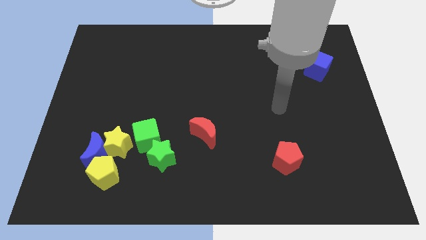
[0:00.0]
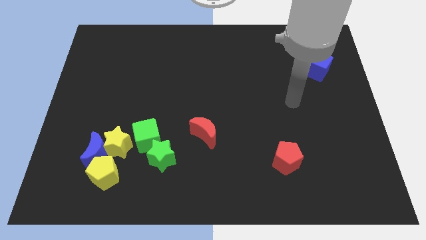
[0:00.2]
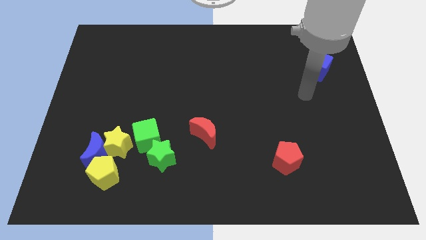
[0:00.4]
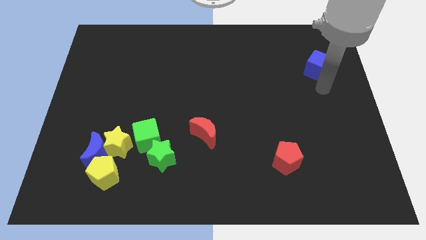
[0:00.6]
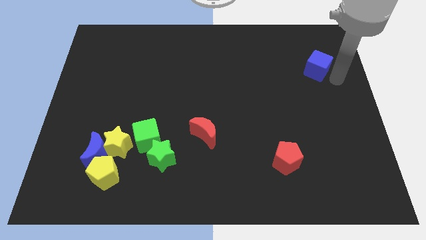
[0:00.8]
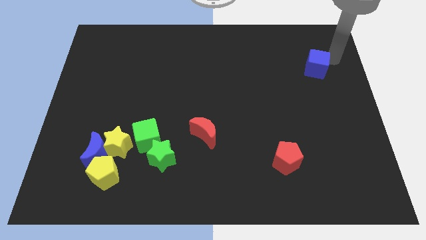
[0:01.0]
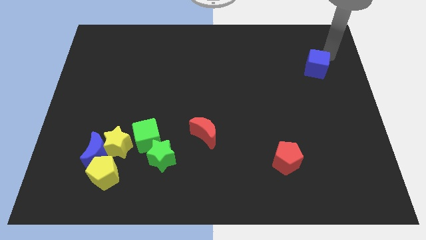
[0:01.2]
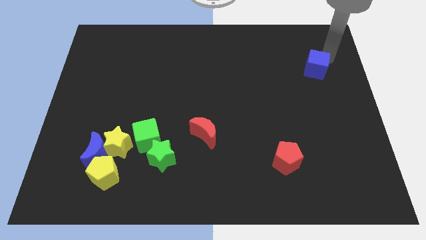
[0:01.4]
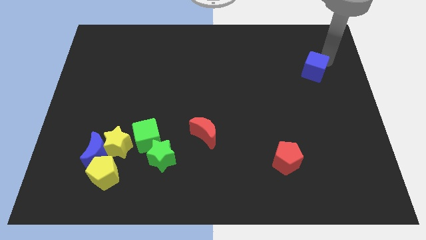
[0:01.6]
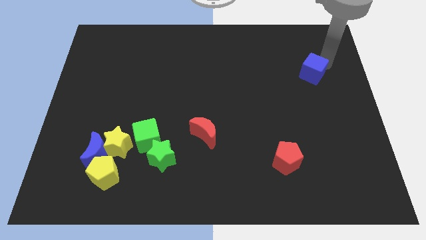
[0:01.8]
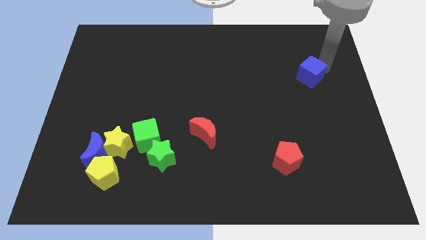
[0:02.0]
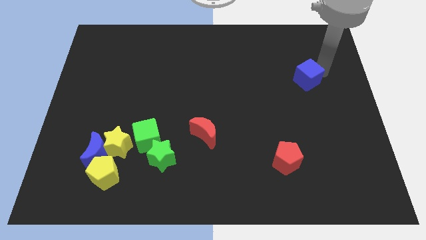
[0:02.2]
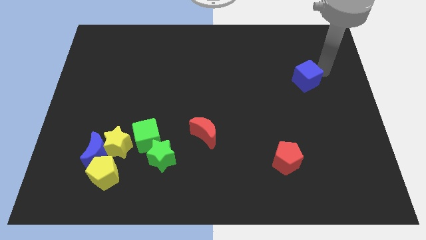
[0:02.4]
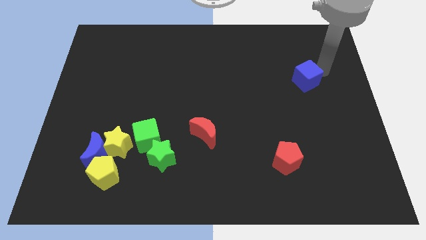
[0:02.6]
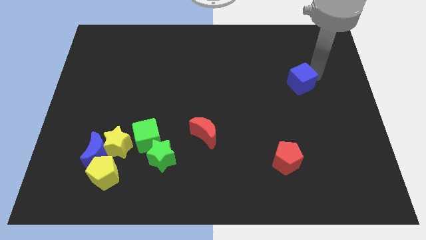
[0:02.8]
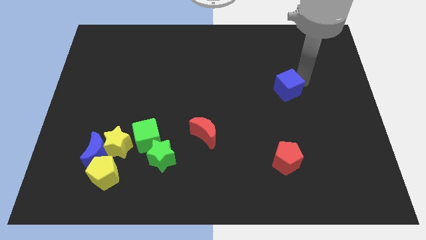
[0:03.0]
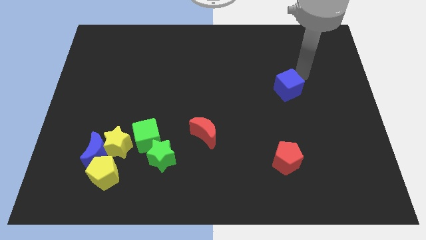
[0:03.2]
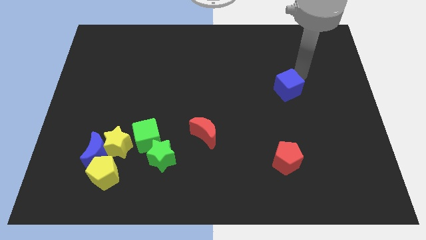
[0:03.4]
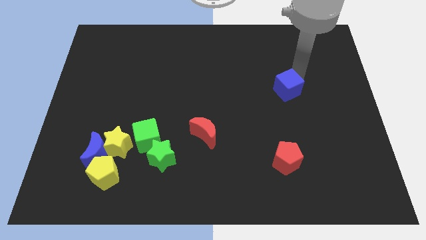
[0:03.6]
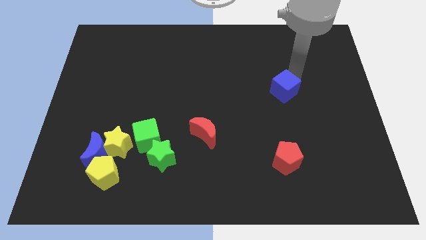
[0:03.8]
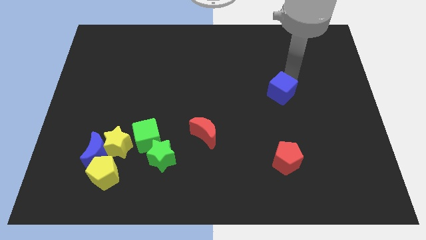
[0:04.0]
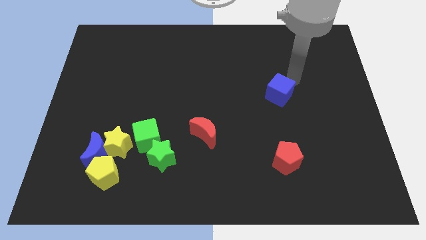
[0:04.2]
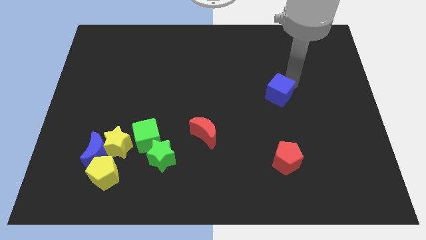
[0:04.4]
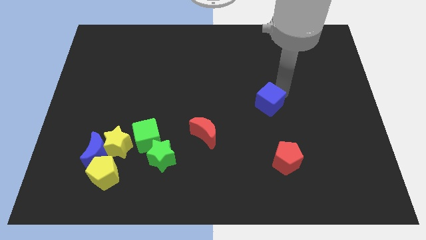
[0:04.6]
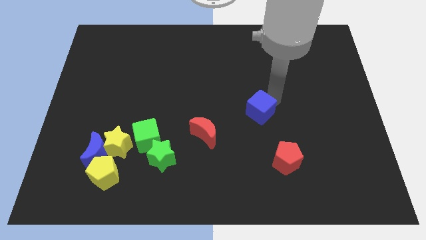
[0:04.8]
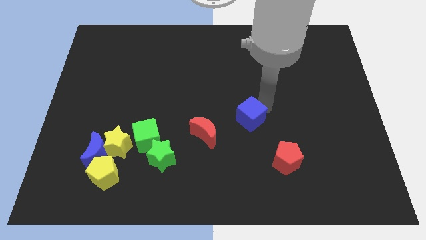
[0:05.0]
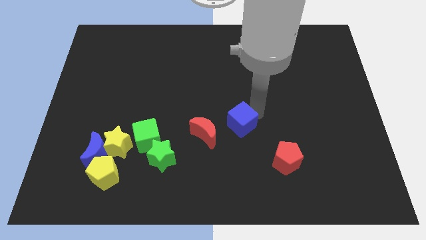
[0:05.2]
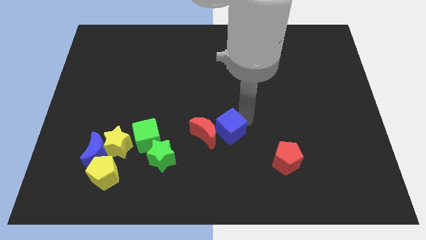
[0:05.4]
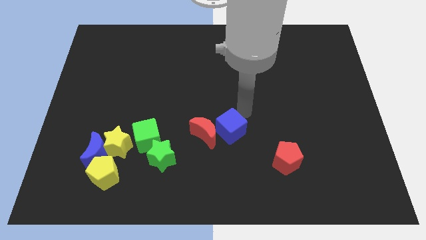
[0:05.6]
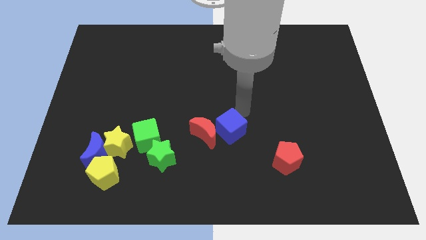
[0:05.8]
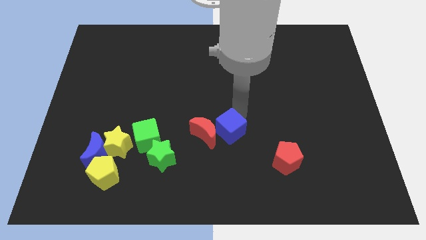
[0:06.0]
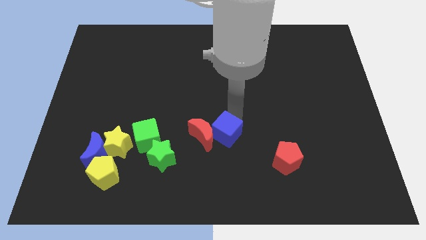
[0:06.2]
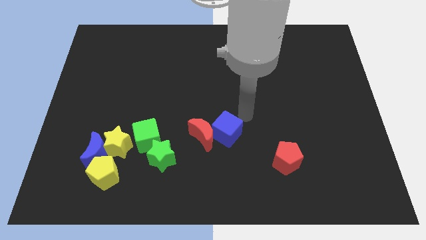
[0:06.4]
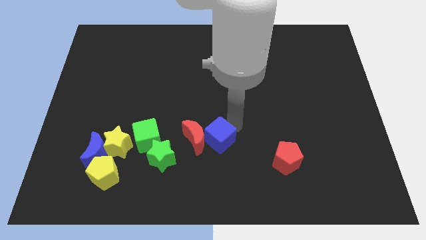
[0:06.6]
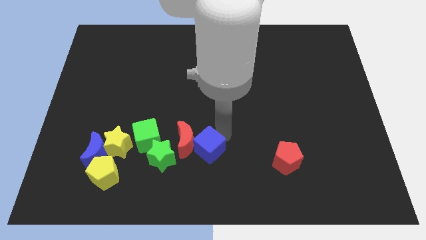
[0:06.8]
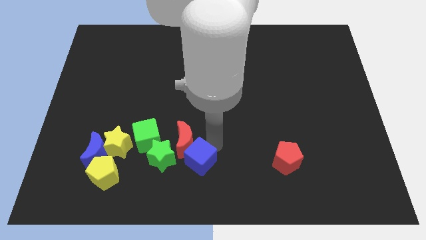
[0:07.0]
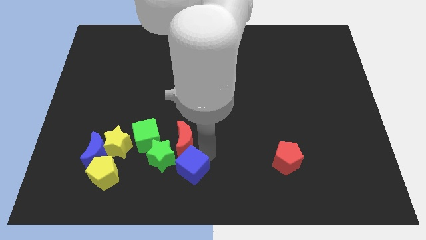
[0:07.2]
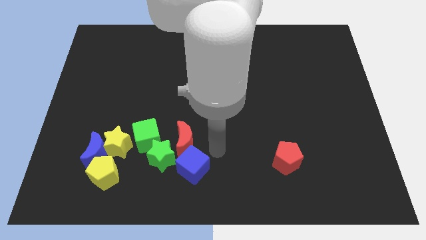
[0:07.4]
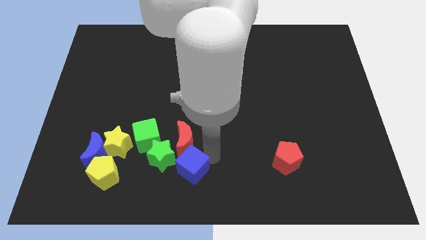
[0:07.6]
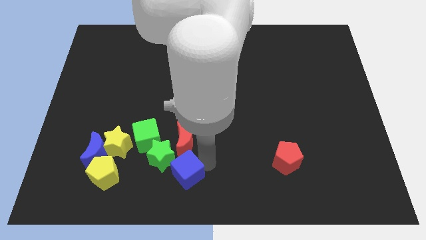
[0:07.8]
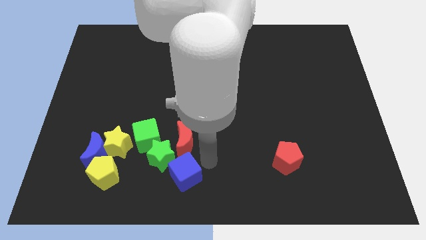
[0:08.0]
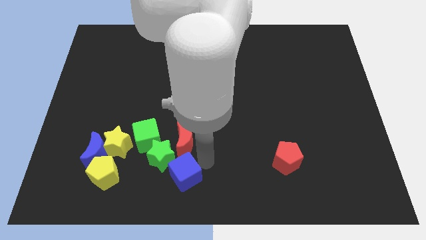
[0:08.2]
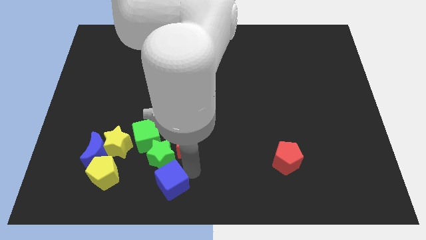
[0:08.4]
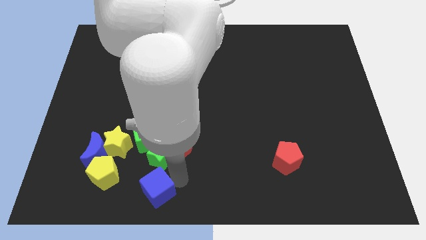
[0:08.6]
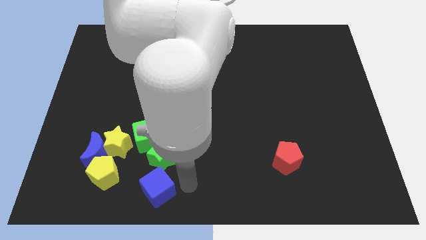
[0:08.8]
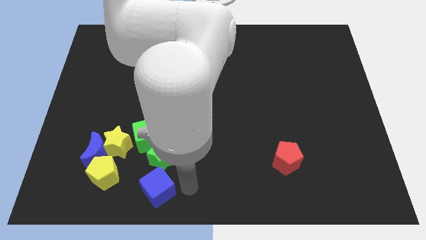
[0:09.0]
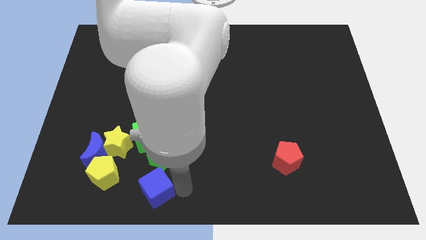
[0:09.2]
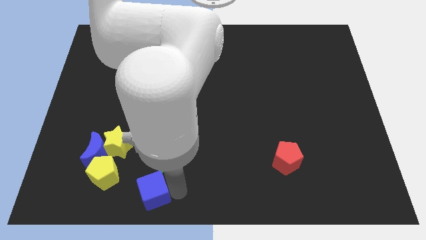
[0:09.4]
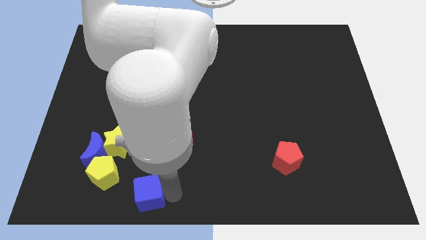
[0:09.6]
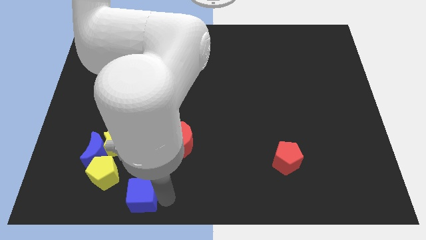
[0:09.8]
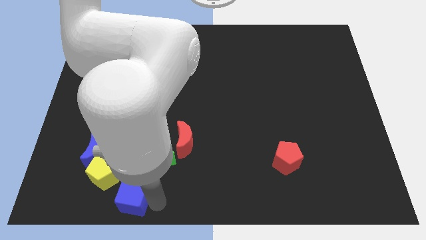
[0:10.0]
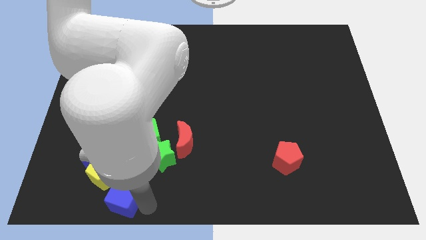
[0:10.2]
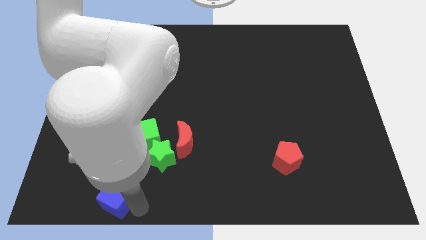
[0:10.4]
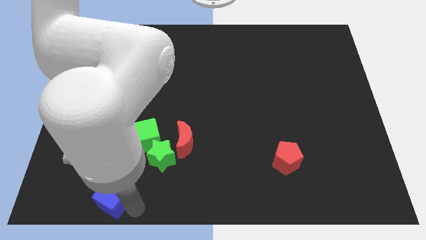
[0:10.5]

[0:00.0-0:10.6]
put the blue cube towards the yellow pentagon

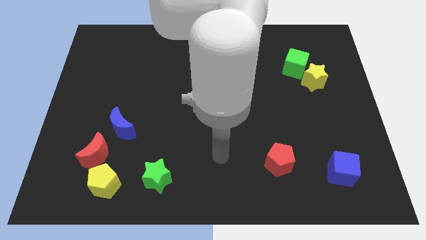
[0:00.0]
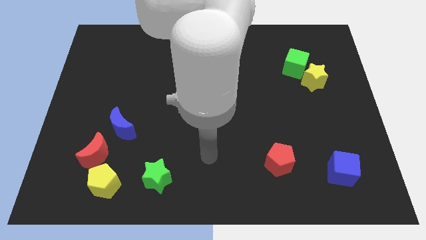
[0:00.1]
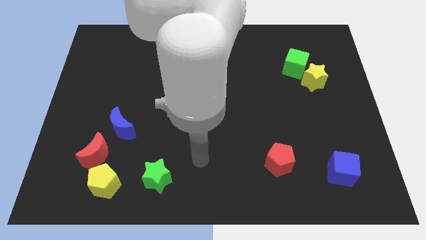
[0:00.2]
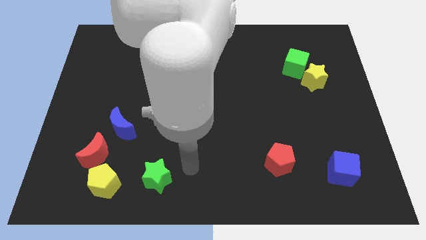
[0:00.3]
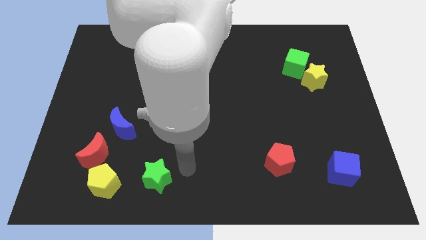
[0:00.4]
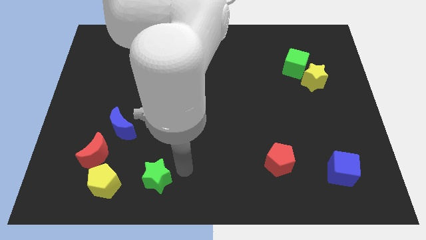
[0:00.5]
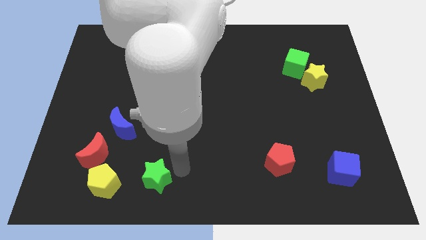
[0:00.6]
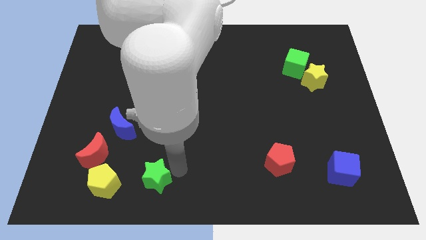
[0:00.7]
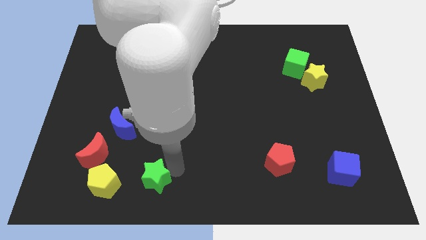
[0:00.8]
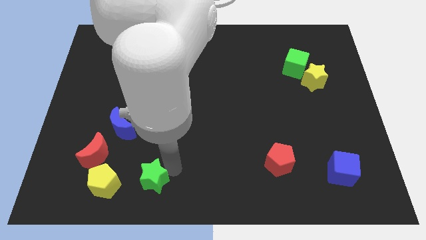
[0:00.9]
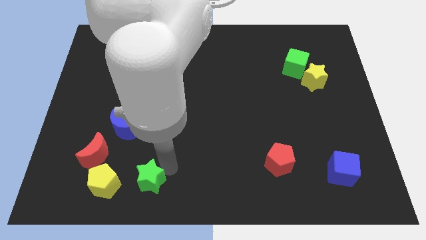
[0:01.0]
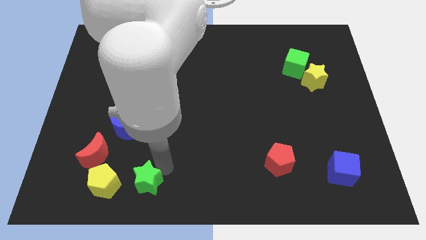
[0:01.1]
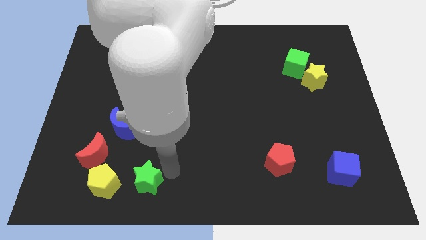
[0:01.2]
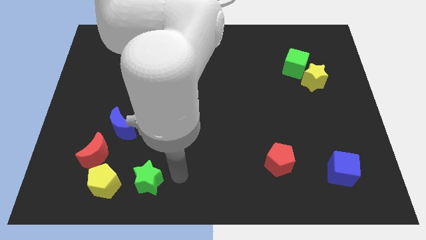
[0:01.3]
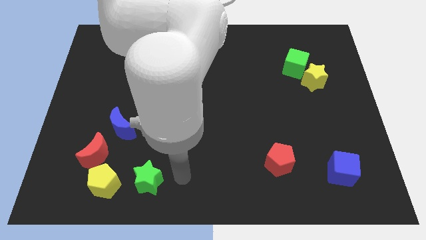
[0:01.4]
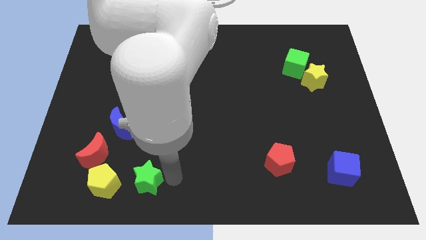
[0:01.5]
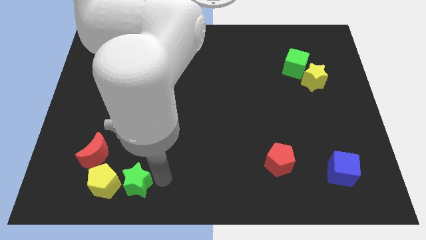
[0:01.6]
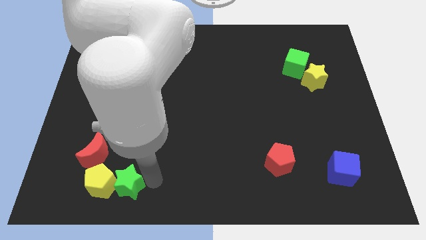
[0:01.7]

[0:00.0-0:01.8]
push the green star next to the yellow pentagon
